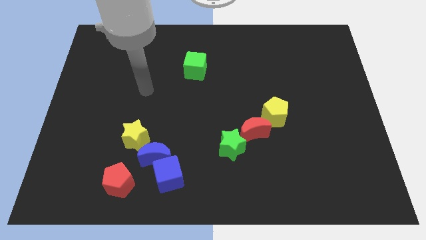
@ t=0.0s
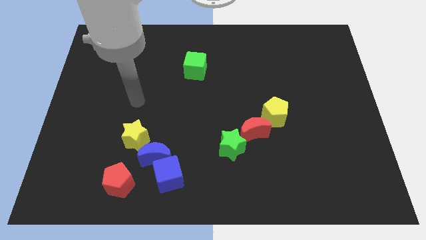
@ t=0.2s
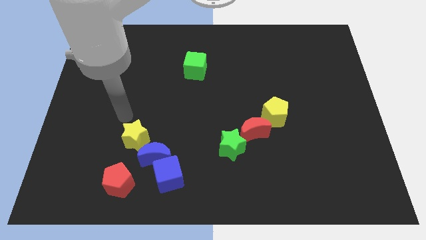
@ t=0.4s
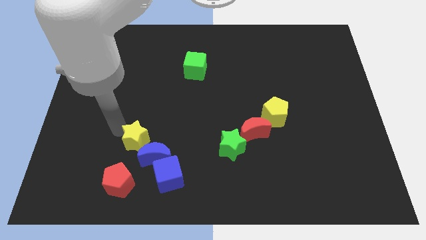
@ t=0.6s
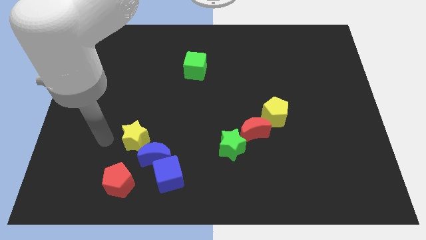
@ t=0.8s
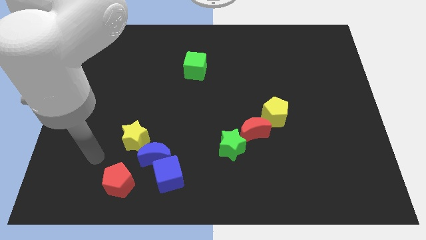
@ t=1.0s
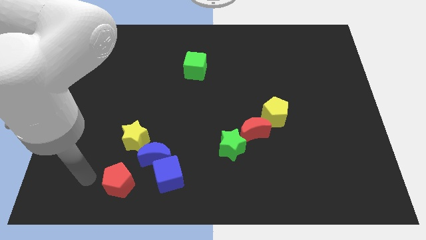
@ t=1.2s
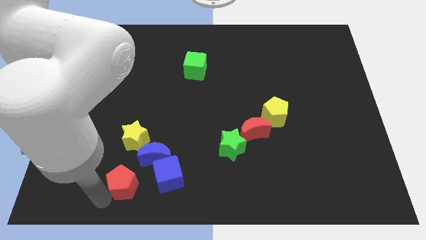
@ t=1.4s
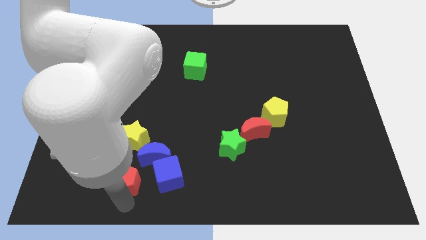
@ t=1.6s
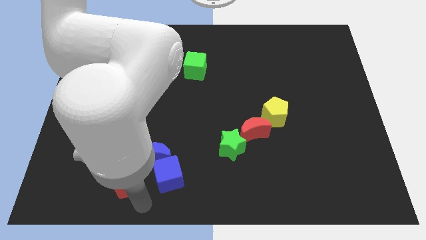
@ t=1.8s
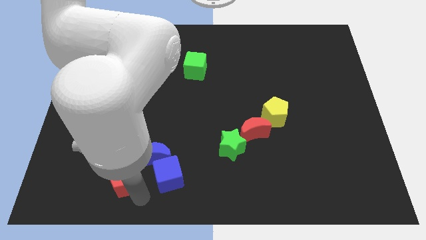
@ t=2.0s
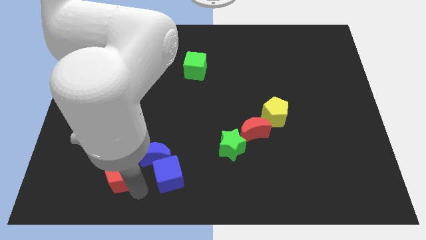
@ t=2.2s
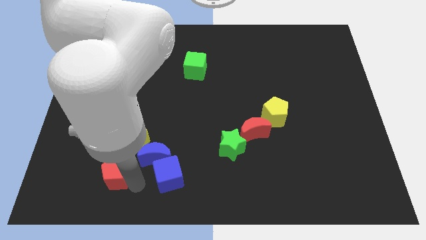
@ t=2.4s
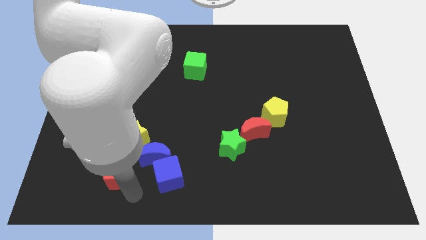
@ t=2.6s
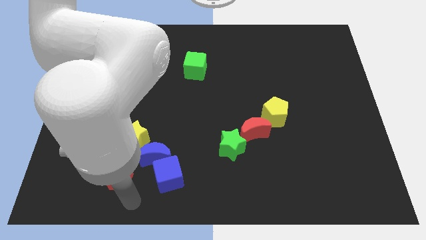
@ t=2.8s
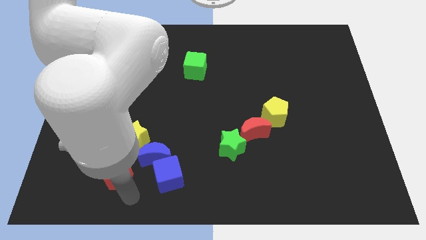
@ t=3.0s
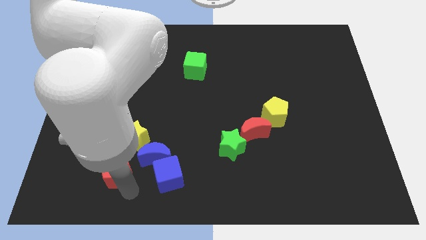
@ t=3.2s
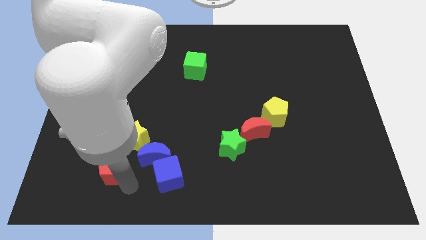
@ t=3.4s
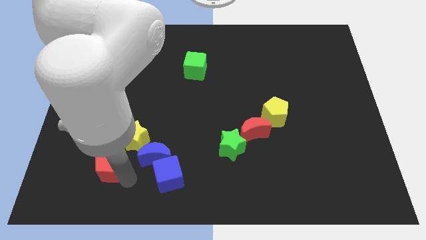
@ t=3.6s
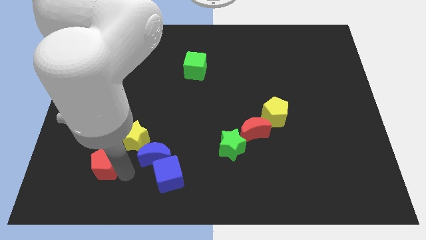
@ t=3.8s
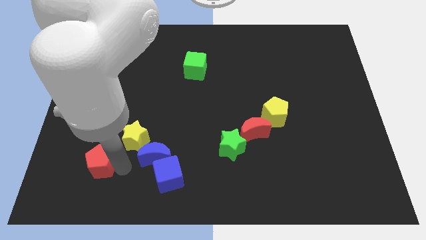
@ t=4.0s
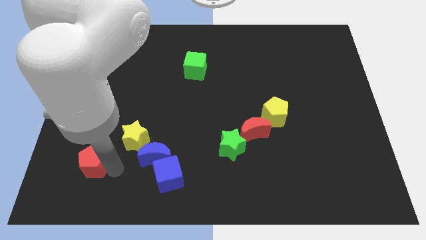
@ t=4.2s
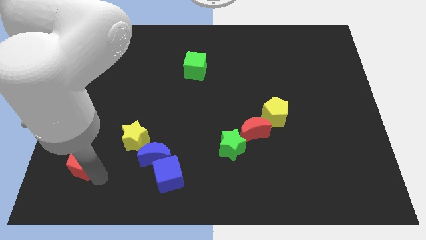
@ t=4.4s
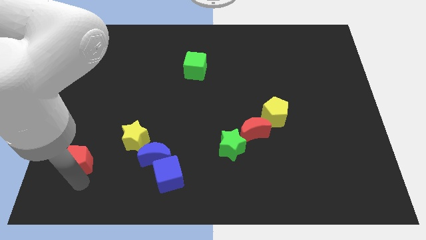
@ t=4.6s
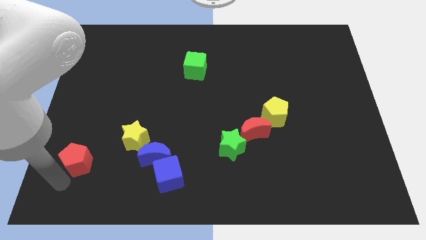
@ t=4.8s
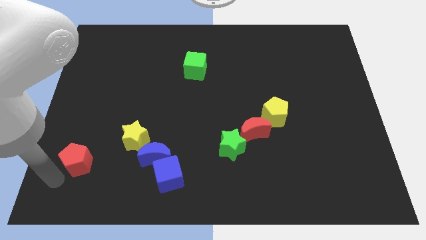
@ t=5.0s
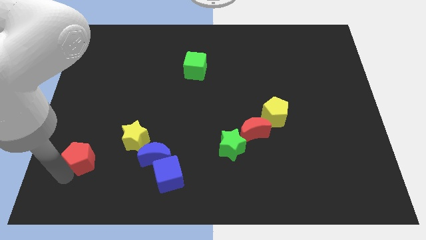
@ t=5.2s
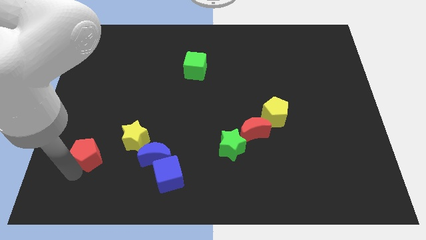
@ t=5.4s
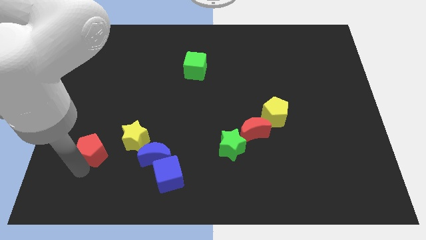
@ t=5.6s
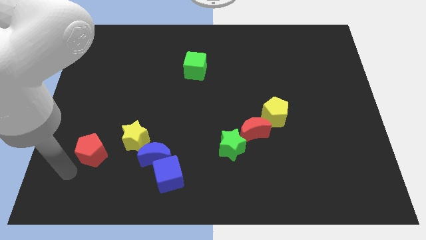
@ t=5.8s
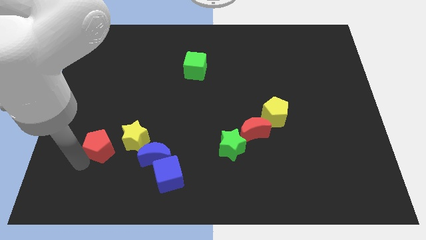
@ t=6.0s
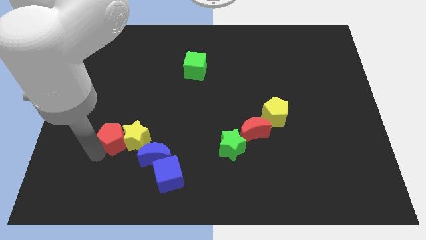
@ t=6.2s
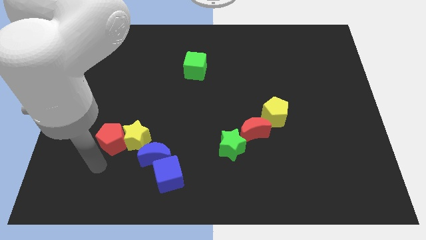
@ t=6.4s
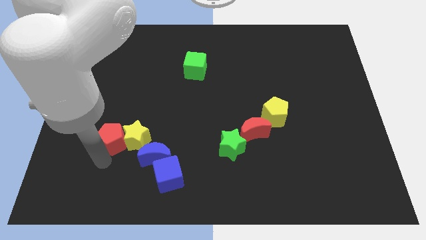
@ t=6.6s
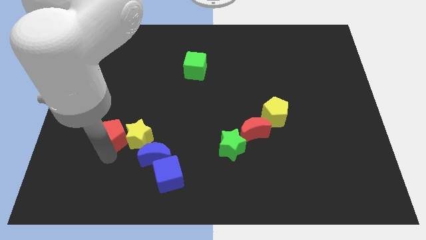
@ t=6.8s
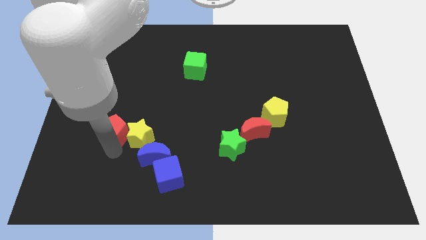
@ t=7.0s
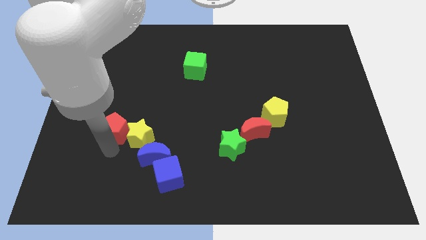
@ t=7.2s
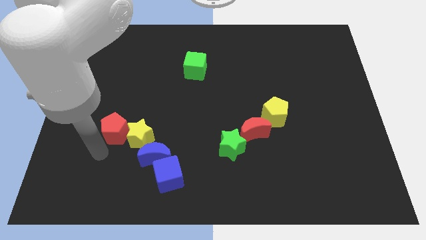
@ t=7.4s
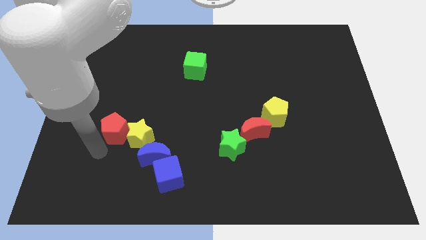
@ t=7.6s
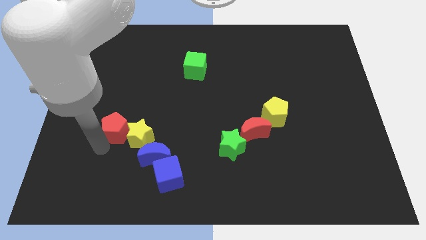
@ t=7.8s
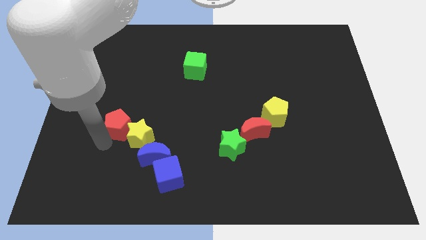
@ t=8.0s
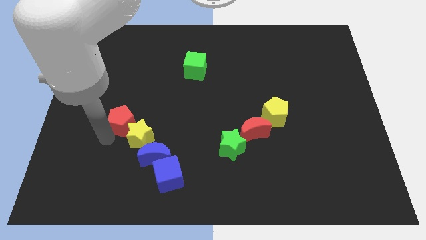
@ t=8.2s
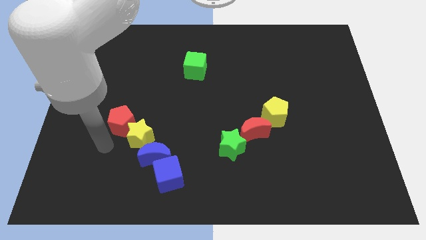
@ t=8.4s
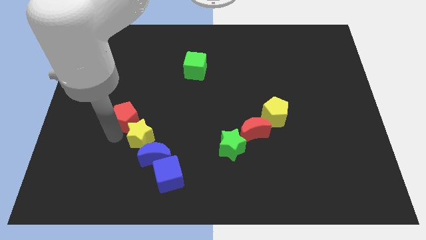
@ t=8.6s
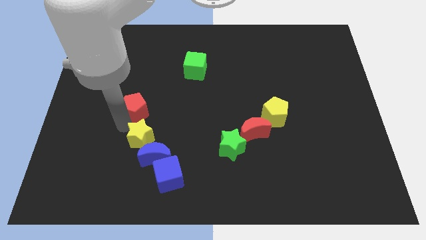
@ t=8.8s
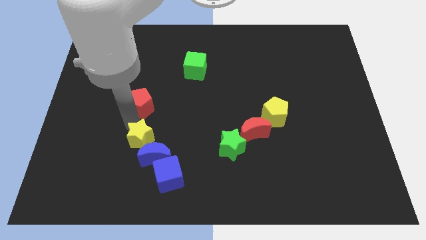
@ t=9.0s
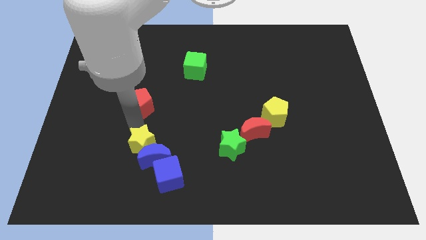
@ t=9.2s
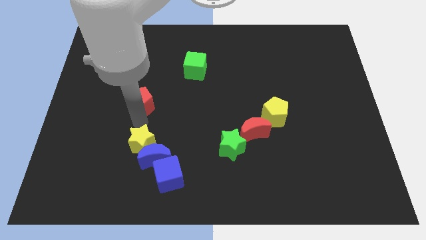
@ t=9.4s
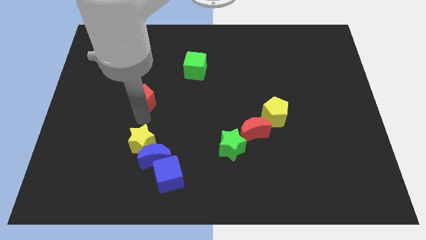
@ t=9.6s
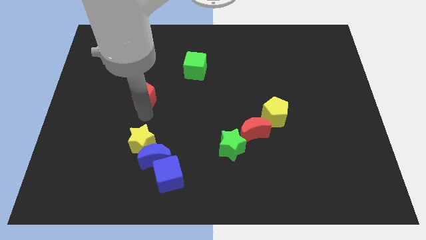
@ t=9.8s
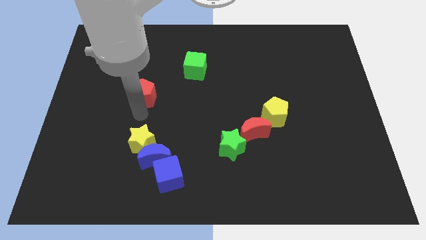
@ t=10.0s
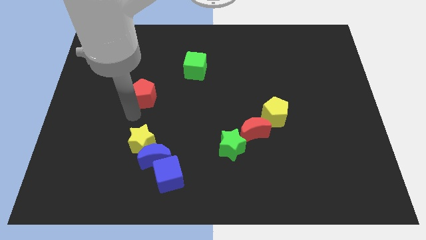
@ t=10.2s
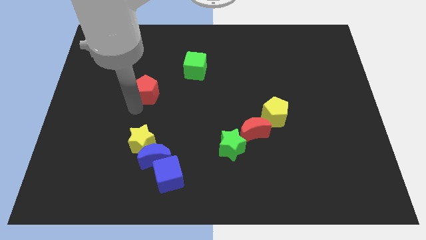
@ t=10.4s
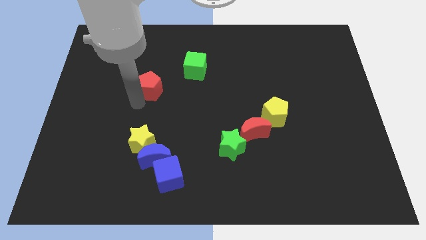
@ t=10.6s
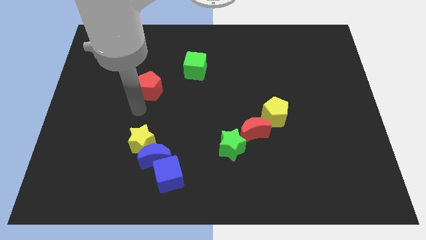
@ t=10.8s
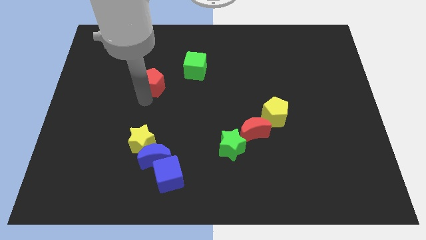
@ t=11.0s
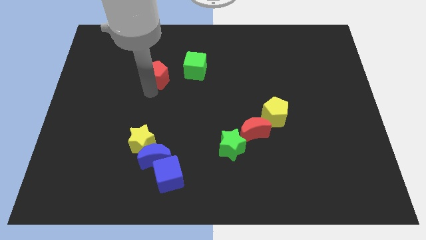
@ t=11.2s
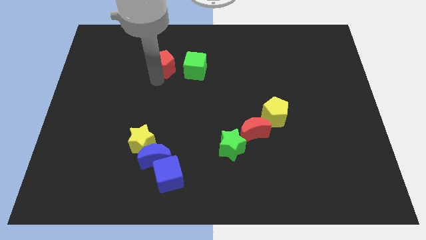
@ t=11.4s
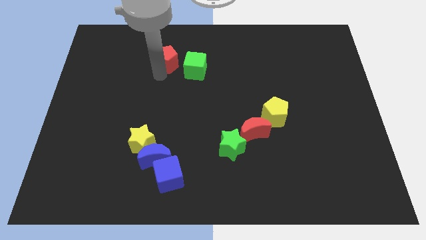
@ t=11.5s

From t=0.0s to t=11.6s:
push the red pentagon to the top left of the green cube

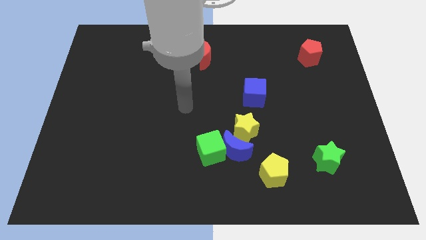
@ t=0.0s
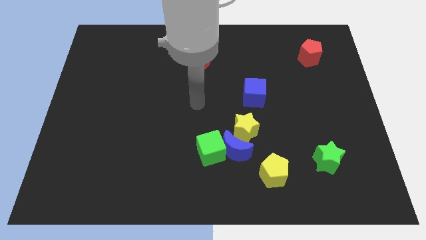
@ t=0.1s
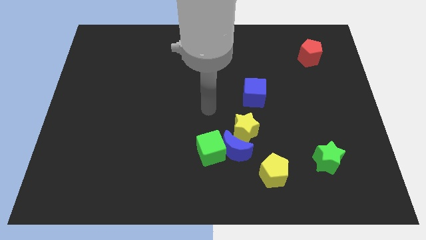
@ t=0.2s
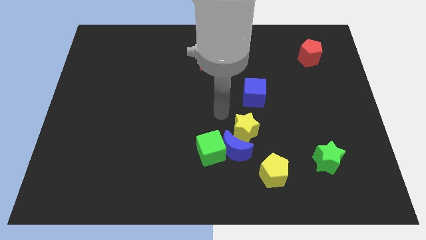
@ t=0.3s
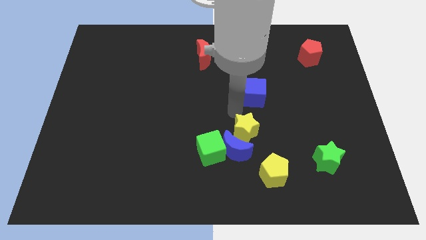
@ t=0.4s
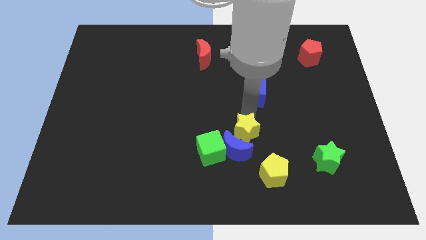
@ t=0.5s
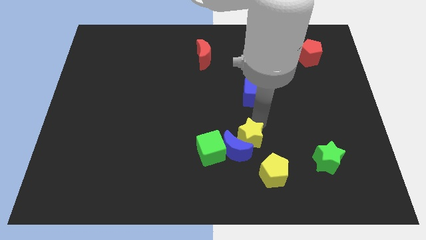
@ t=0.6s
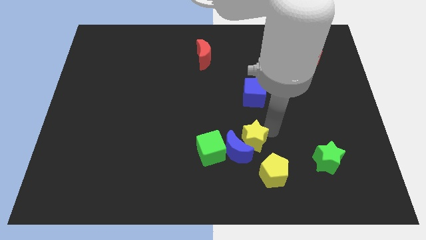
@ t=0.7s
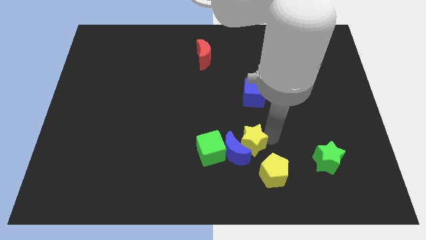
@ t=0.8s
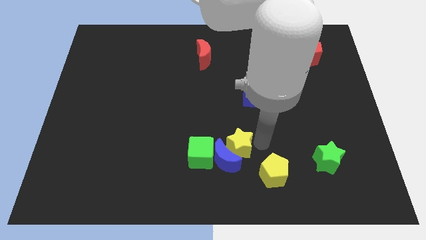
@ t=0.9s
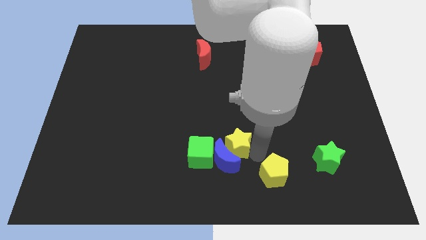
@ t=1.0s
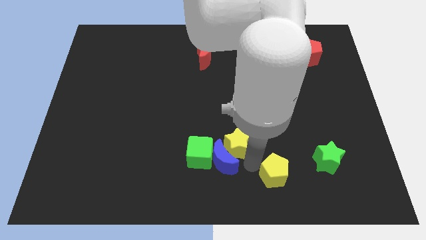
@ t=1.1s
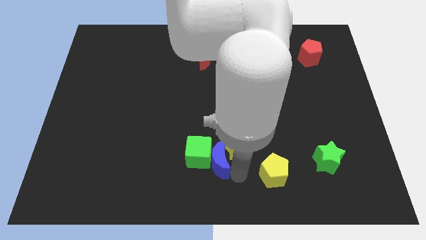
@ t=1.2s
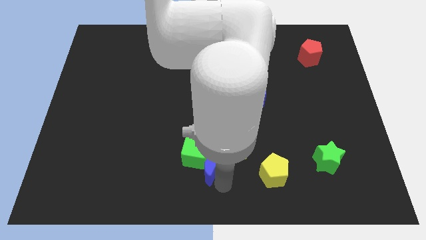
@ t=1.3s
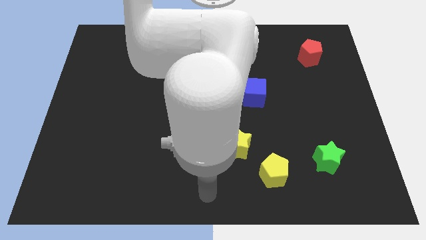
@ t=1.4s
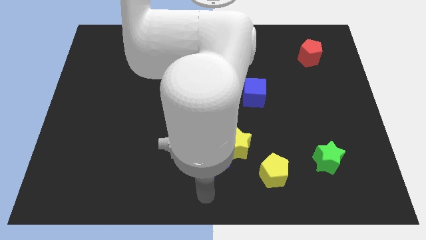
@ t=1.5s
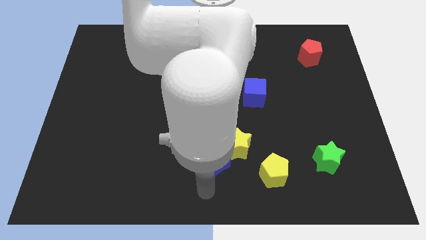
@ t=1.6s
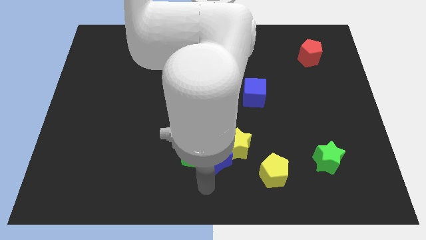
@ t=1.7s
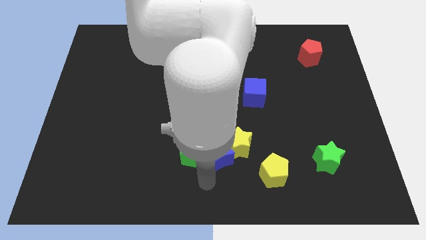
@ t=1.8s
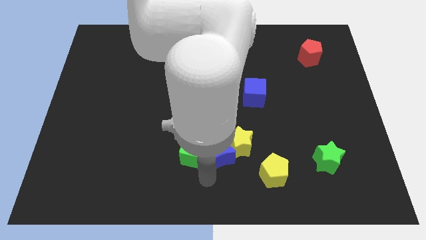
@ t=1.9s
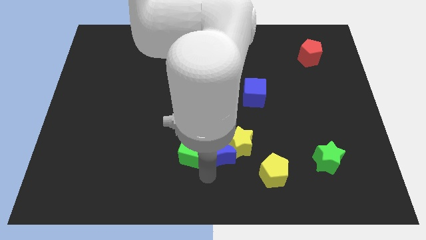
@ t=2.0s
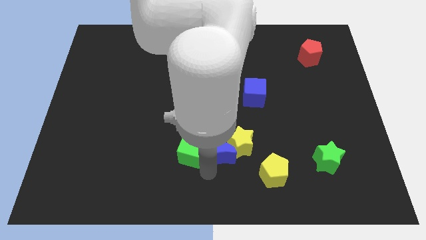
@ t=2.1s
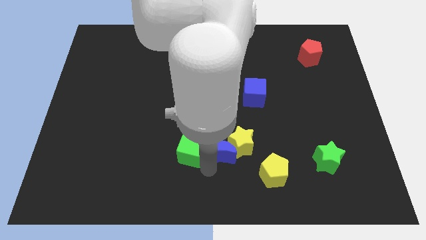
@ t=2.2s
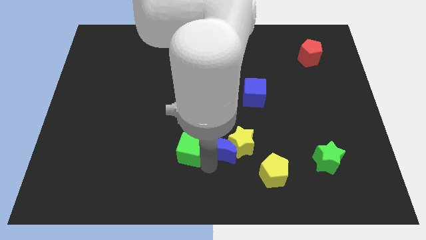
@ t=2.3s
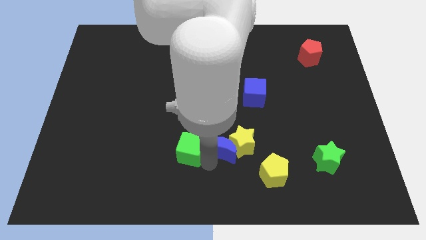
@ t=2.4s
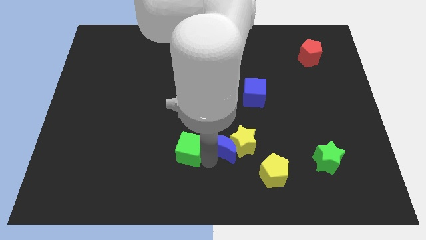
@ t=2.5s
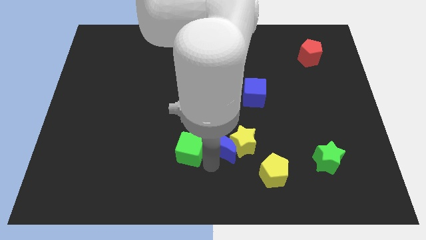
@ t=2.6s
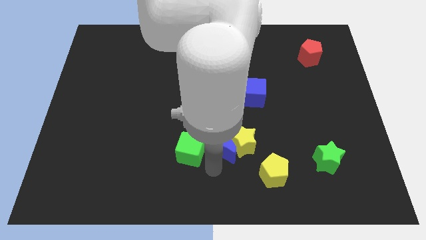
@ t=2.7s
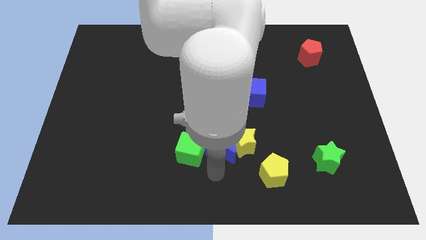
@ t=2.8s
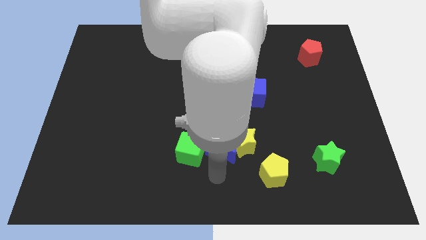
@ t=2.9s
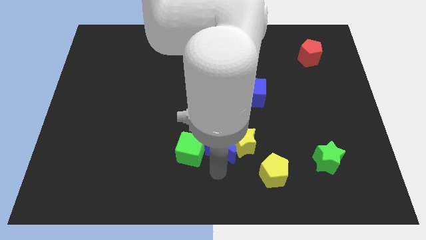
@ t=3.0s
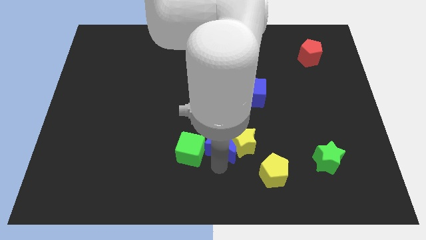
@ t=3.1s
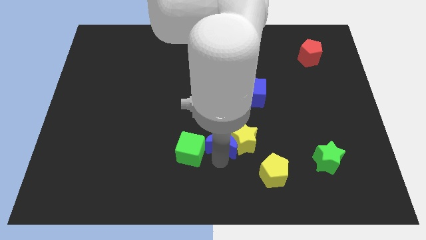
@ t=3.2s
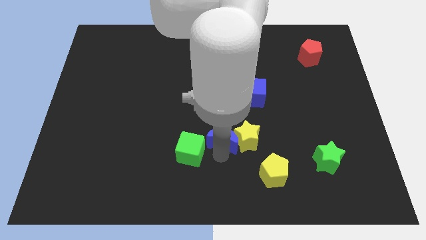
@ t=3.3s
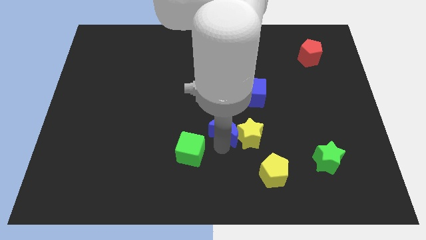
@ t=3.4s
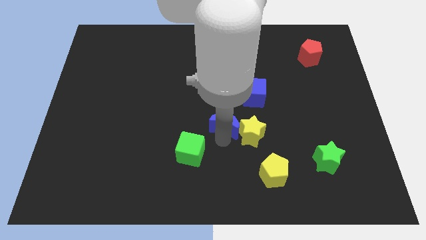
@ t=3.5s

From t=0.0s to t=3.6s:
push the blue moon to the bottom left side of the blue cube
